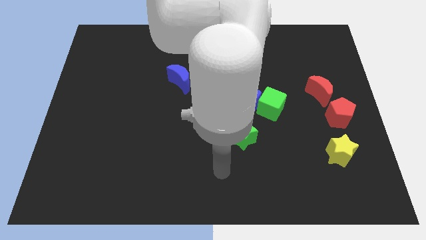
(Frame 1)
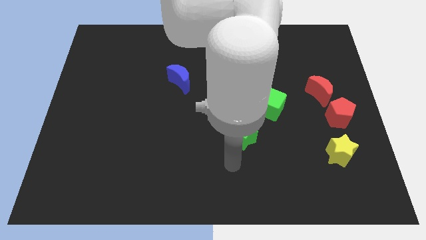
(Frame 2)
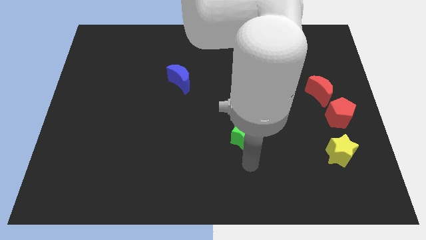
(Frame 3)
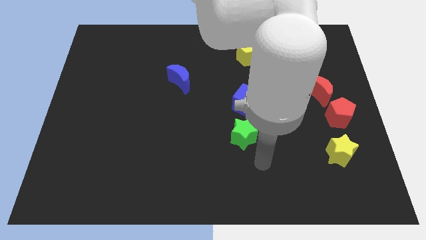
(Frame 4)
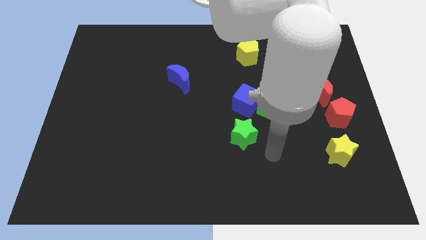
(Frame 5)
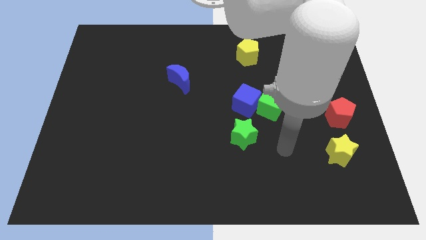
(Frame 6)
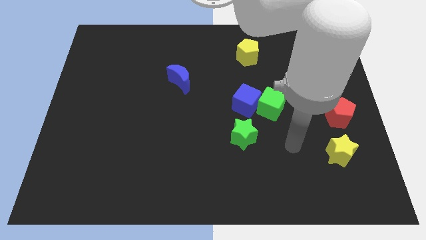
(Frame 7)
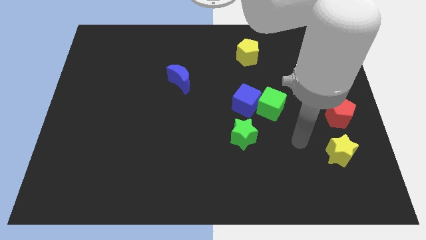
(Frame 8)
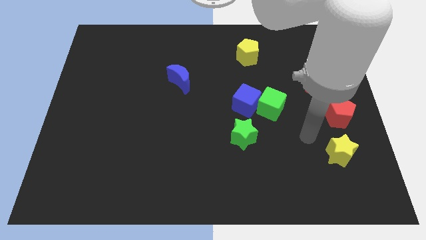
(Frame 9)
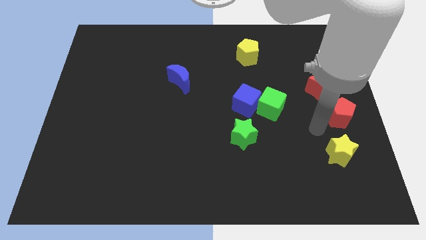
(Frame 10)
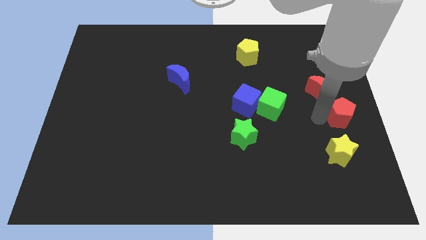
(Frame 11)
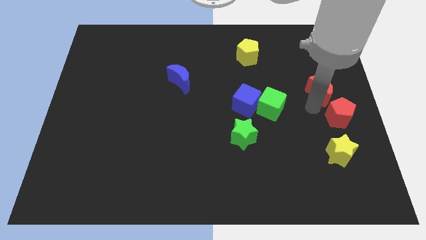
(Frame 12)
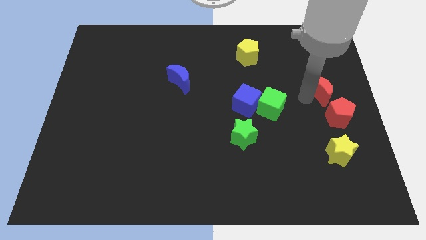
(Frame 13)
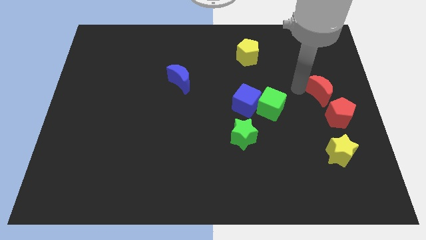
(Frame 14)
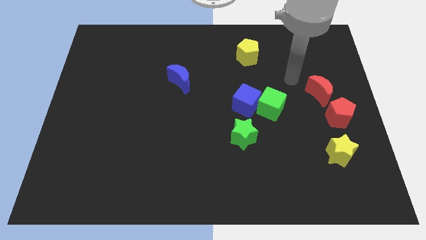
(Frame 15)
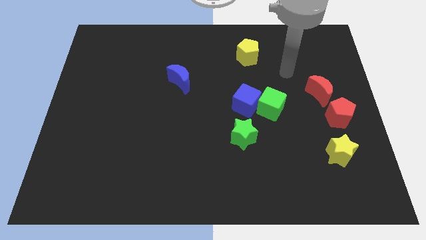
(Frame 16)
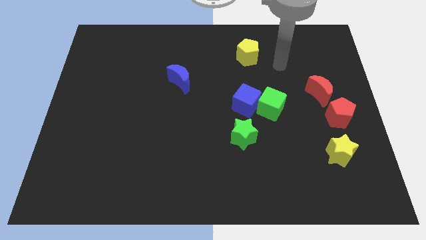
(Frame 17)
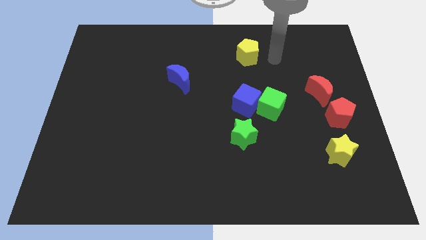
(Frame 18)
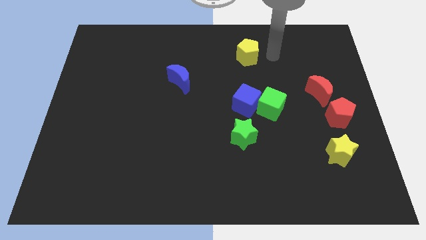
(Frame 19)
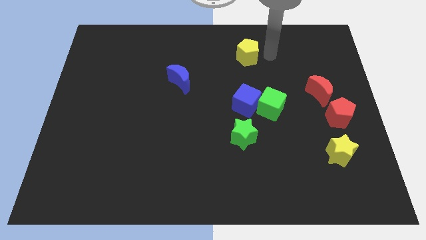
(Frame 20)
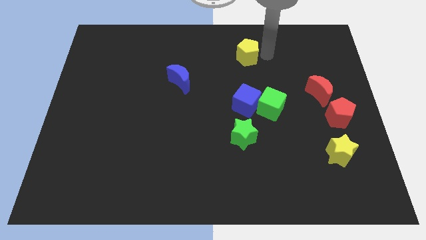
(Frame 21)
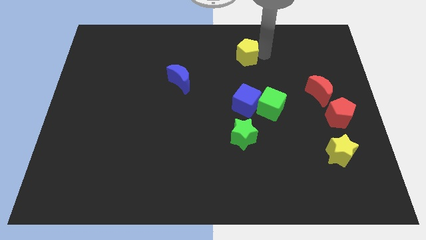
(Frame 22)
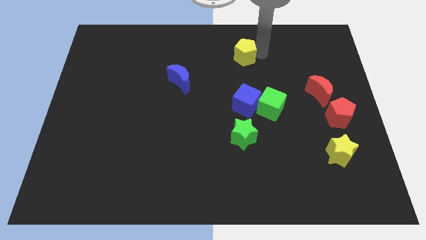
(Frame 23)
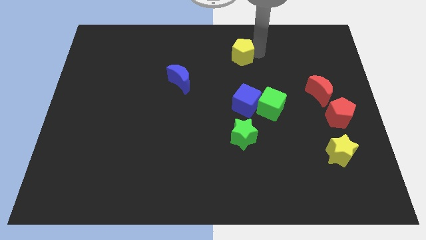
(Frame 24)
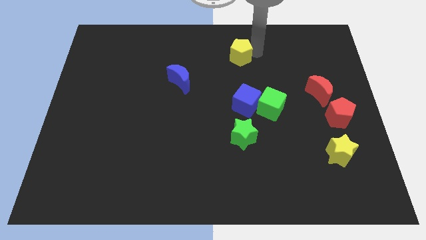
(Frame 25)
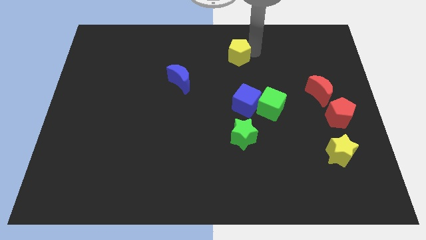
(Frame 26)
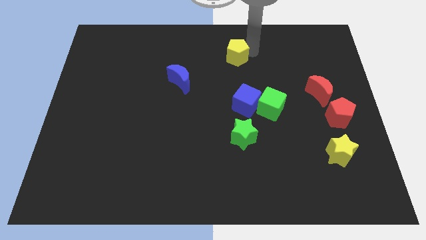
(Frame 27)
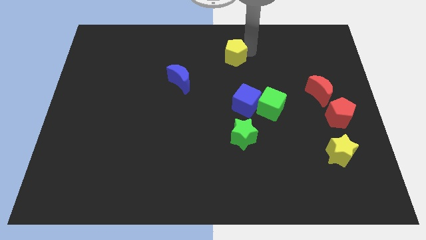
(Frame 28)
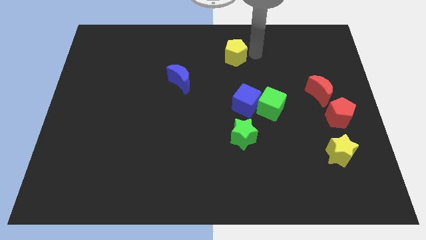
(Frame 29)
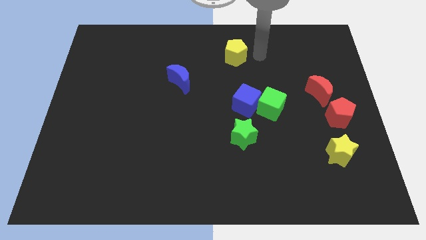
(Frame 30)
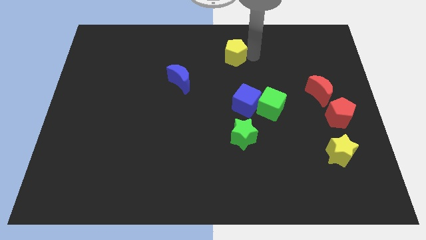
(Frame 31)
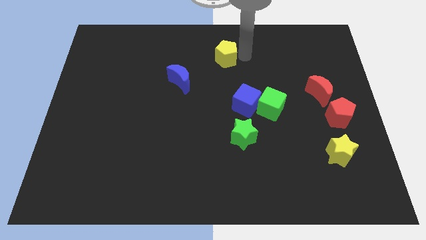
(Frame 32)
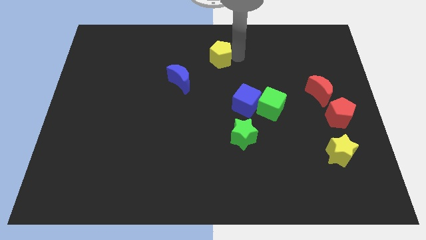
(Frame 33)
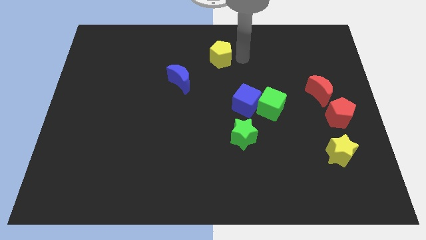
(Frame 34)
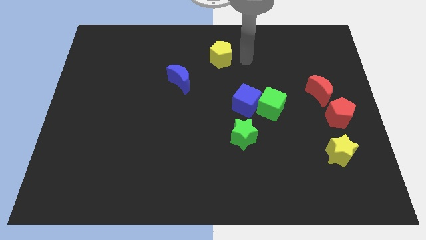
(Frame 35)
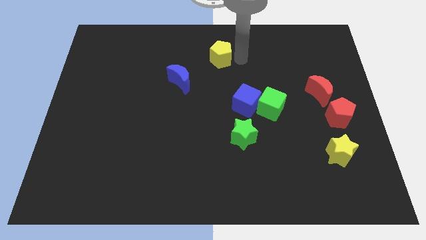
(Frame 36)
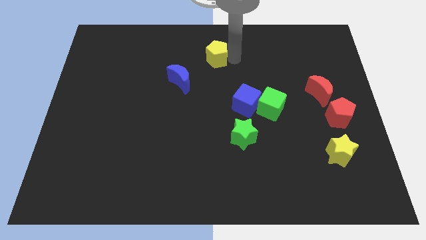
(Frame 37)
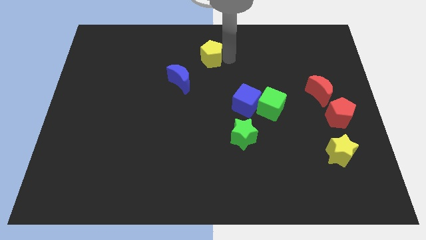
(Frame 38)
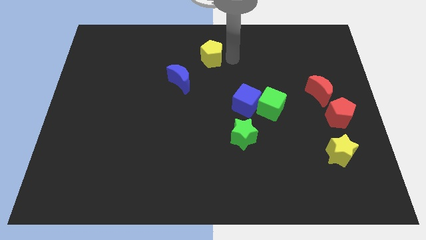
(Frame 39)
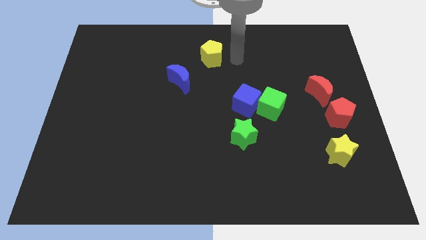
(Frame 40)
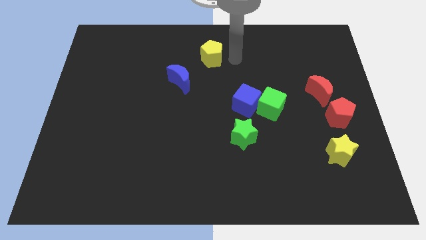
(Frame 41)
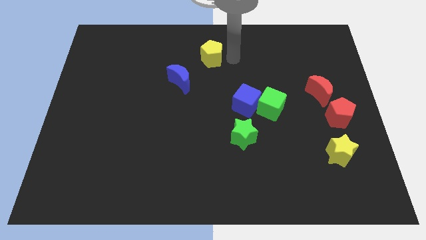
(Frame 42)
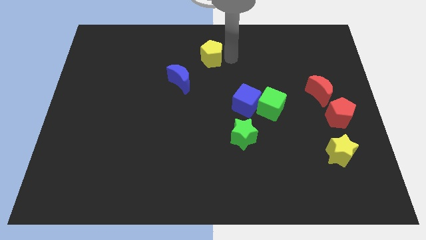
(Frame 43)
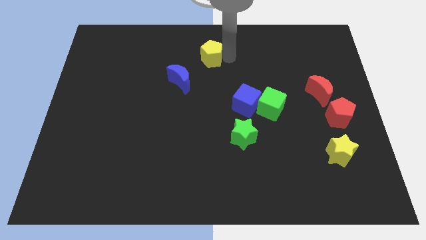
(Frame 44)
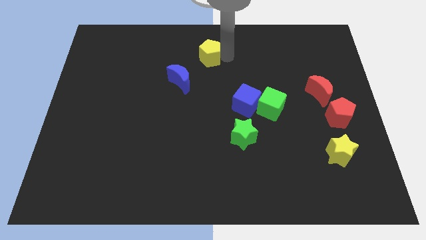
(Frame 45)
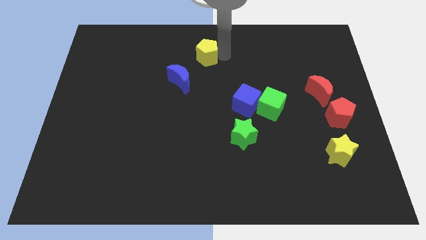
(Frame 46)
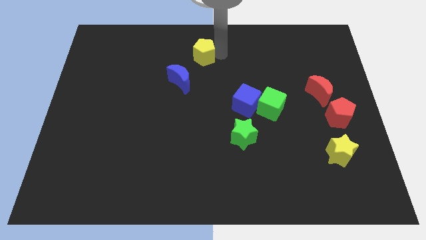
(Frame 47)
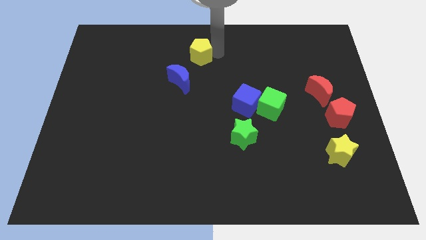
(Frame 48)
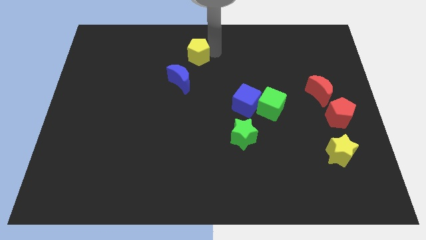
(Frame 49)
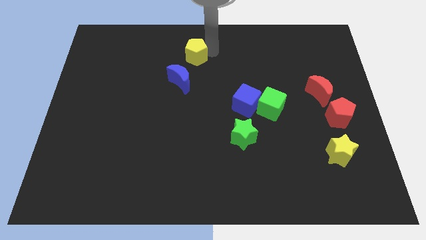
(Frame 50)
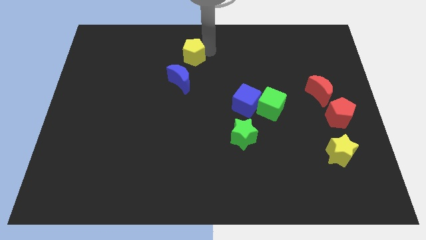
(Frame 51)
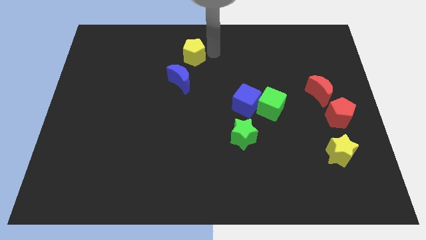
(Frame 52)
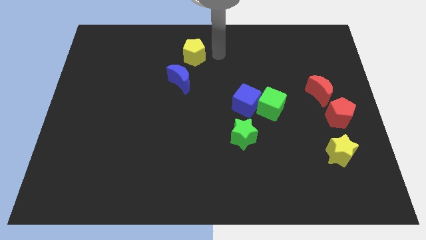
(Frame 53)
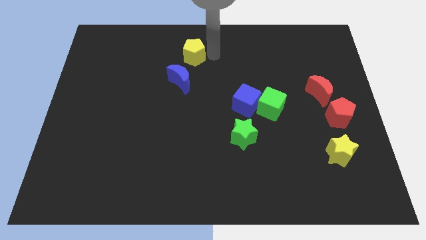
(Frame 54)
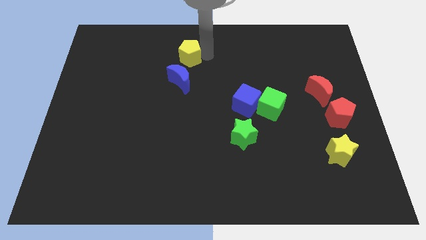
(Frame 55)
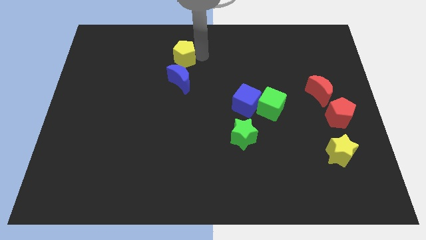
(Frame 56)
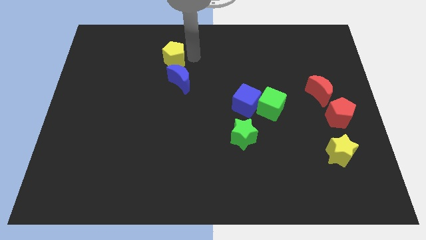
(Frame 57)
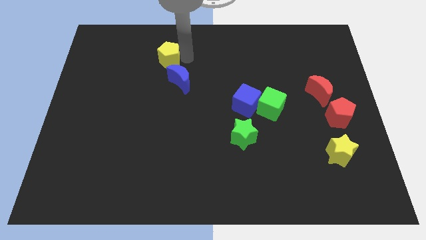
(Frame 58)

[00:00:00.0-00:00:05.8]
move the yellow pentagon to the left

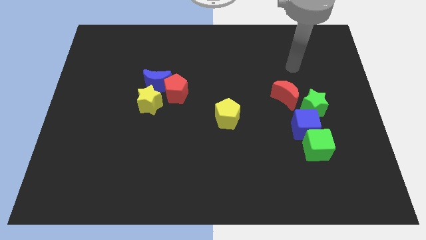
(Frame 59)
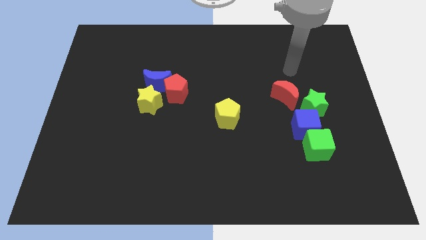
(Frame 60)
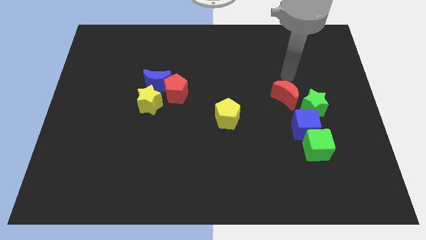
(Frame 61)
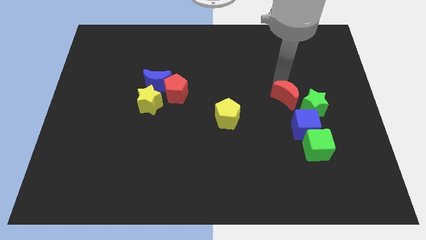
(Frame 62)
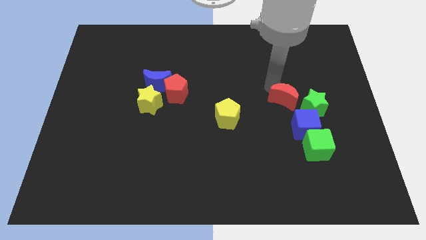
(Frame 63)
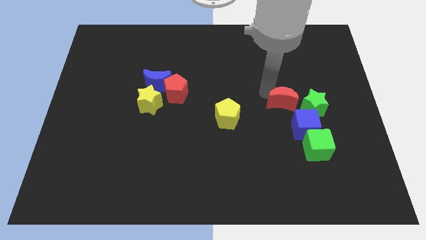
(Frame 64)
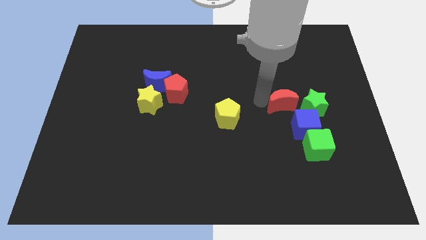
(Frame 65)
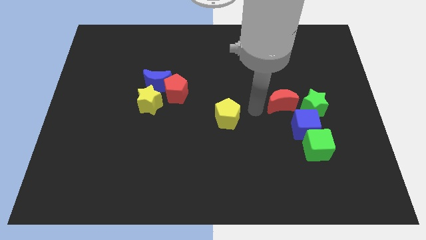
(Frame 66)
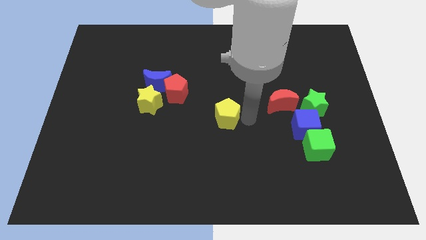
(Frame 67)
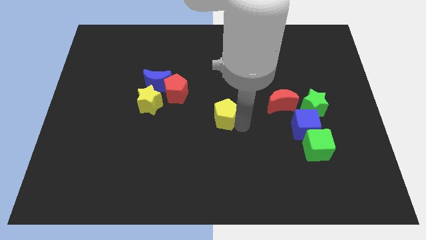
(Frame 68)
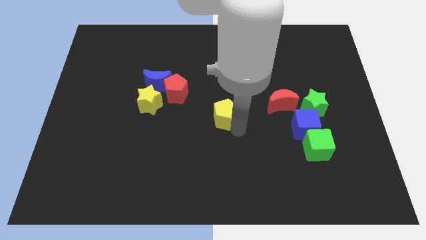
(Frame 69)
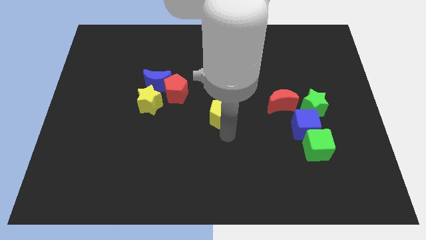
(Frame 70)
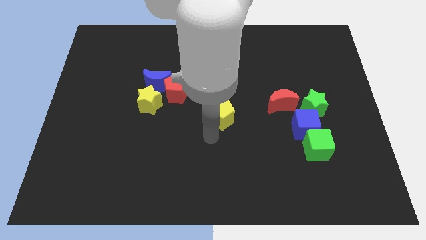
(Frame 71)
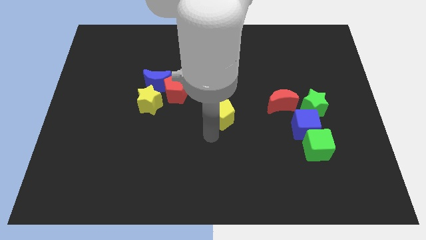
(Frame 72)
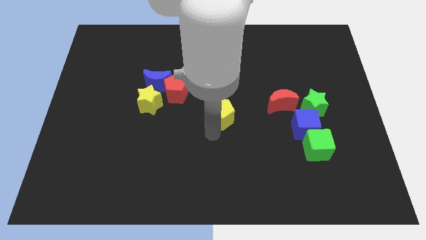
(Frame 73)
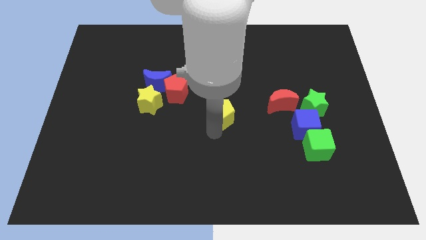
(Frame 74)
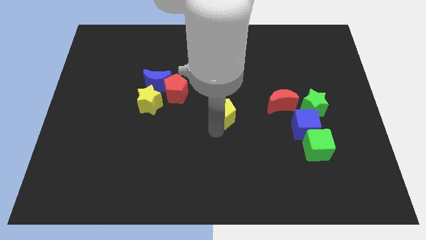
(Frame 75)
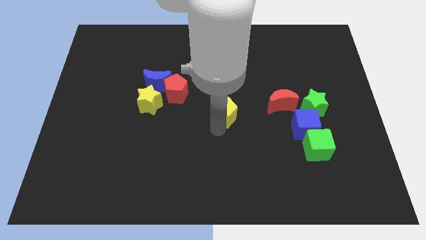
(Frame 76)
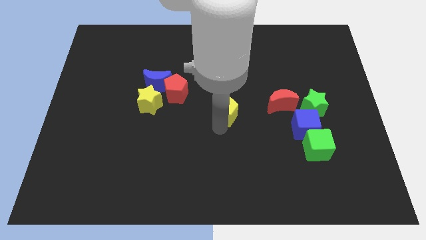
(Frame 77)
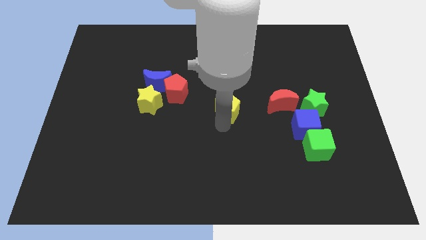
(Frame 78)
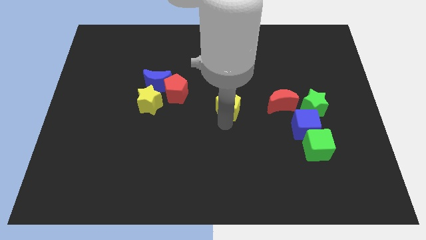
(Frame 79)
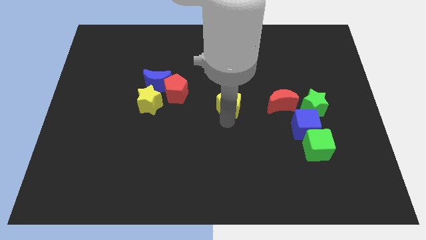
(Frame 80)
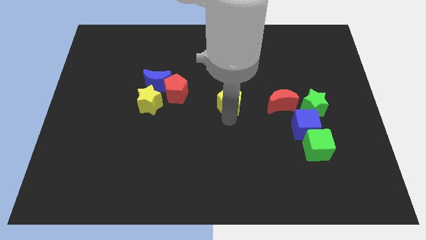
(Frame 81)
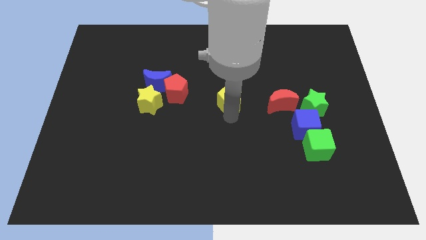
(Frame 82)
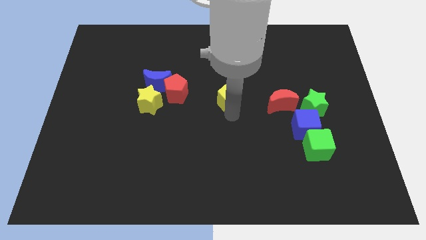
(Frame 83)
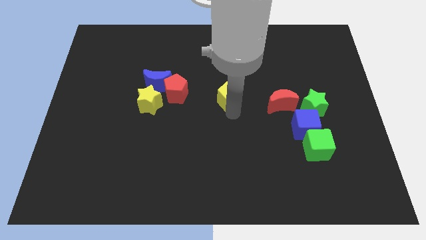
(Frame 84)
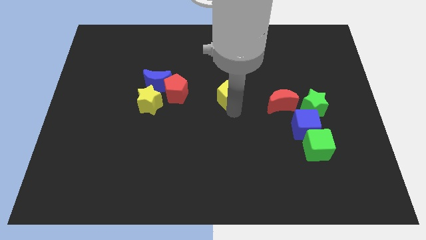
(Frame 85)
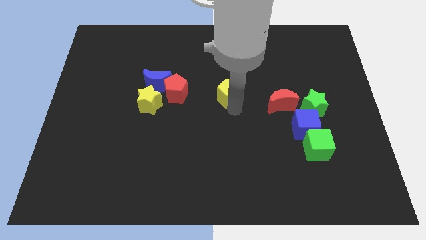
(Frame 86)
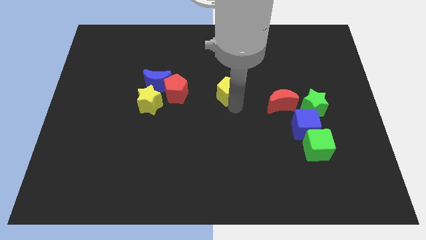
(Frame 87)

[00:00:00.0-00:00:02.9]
move the yellow pentagon up a little
